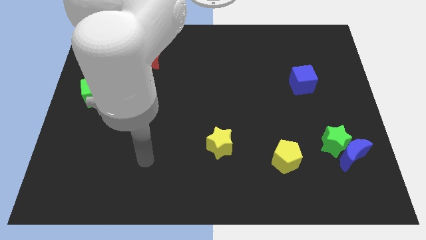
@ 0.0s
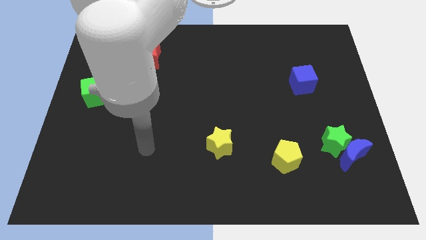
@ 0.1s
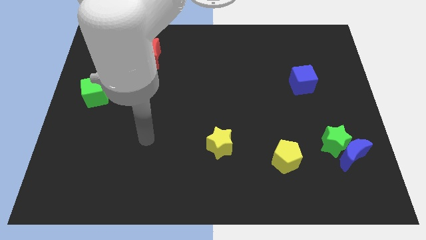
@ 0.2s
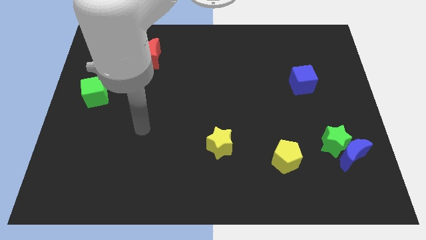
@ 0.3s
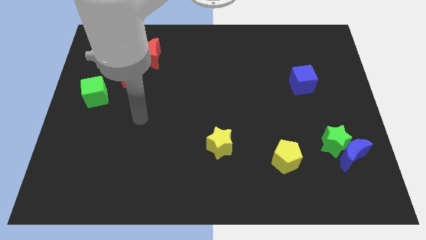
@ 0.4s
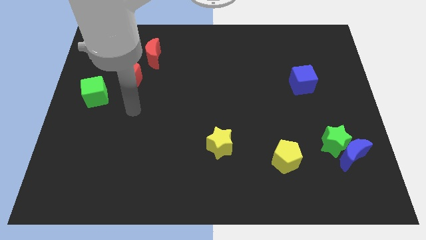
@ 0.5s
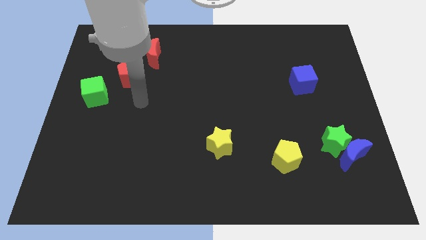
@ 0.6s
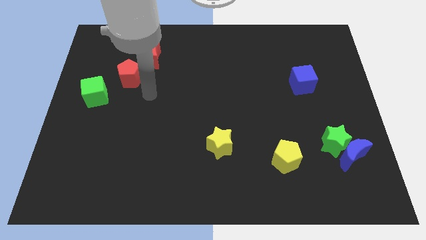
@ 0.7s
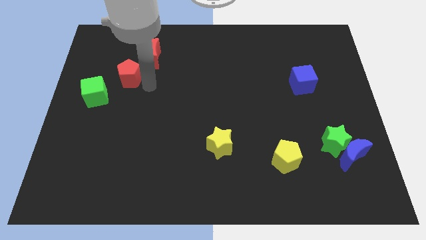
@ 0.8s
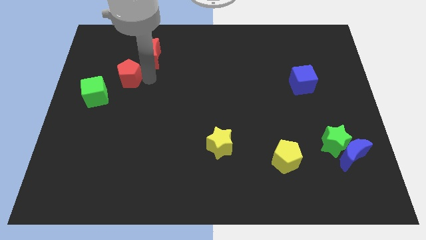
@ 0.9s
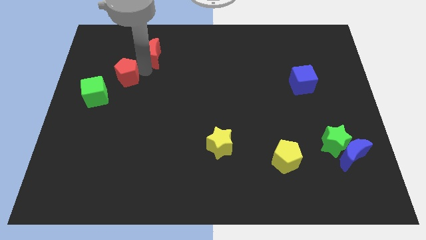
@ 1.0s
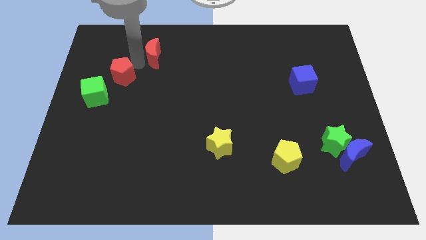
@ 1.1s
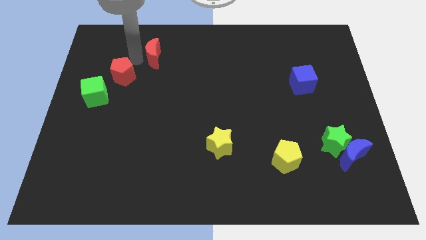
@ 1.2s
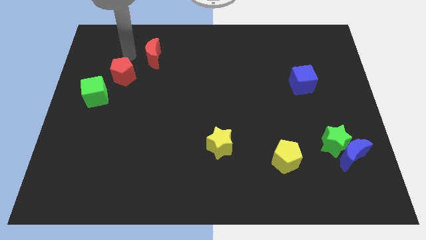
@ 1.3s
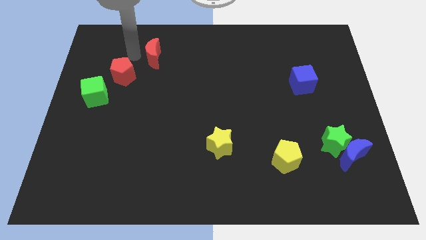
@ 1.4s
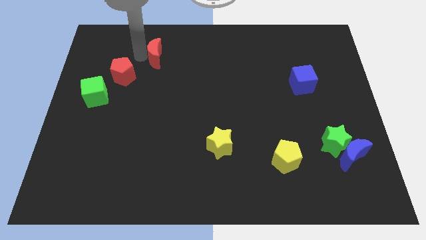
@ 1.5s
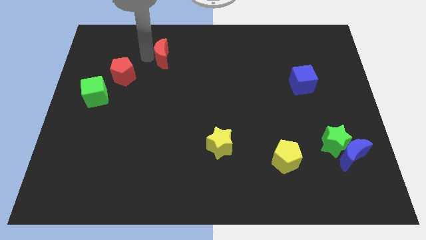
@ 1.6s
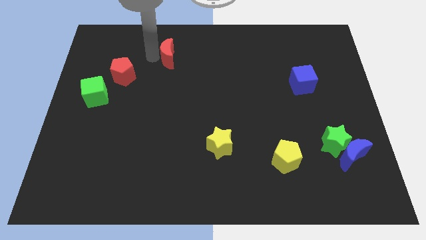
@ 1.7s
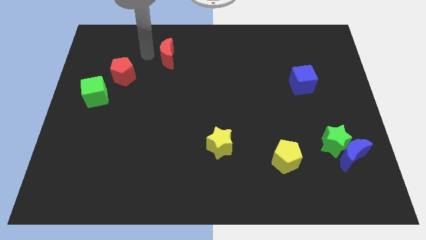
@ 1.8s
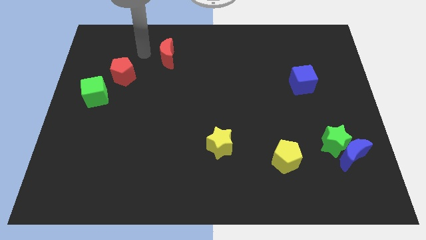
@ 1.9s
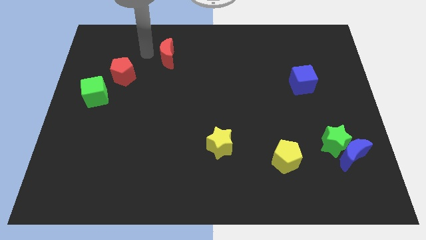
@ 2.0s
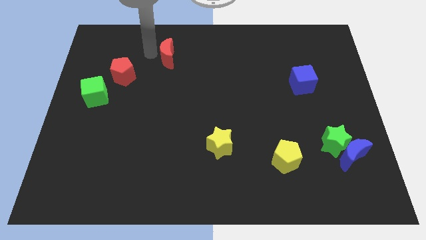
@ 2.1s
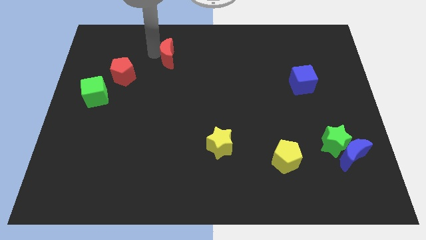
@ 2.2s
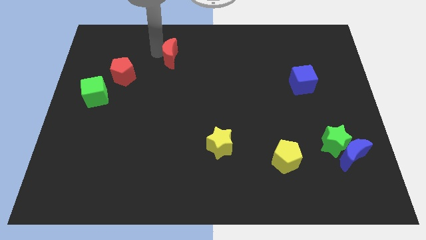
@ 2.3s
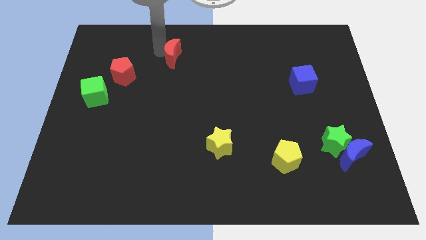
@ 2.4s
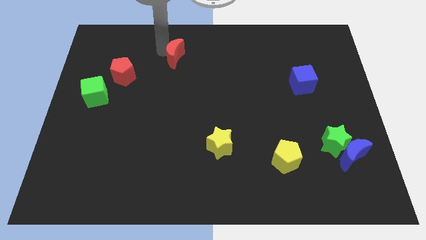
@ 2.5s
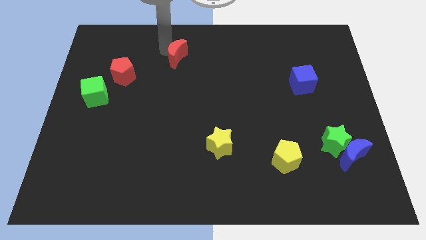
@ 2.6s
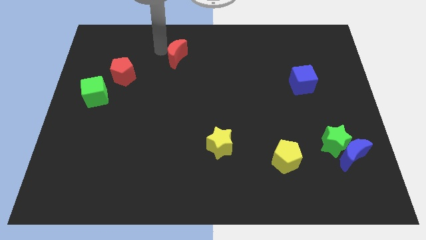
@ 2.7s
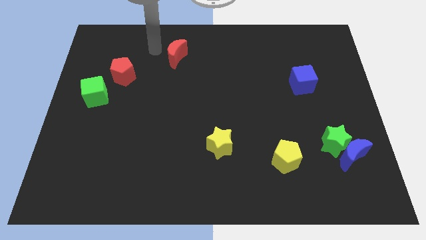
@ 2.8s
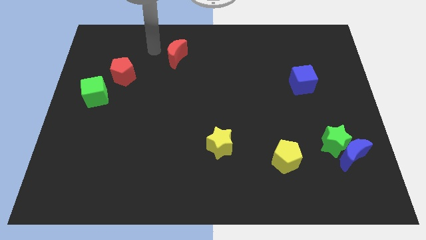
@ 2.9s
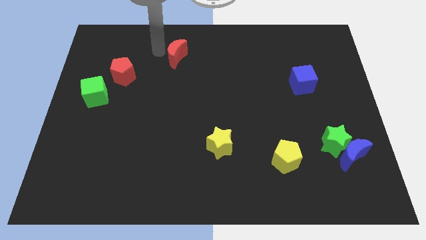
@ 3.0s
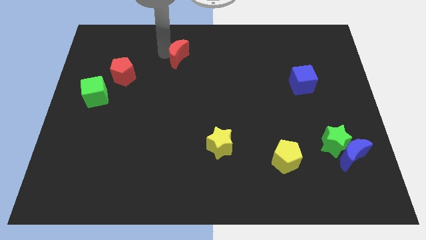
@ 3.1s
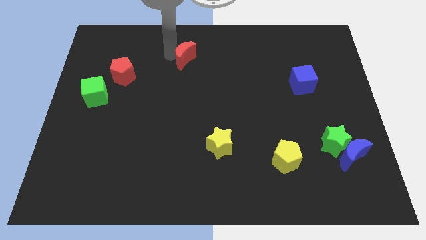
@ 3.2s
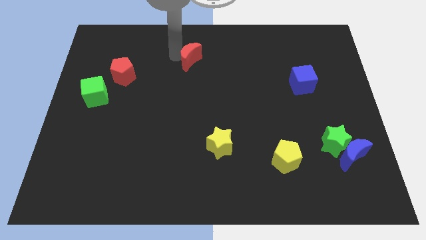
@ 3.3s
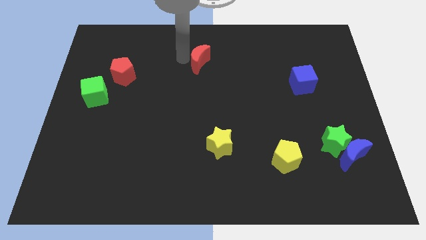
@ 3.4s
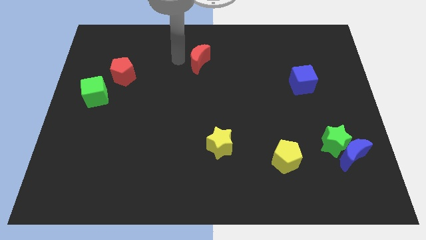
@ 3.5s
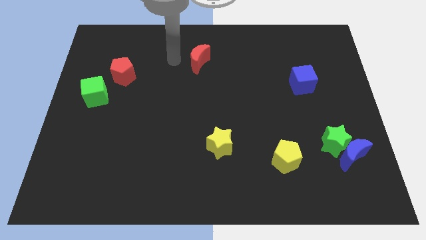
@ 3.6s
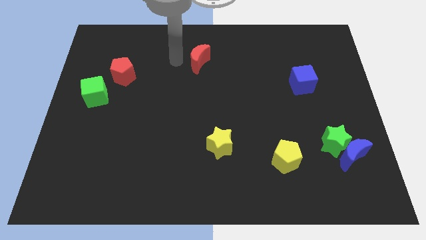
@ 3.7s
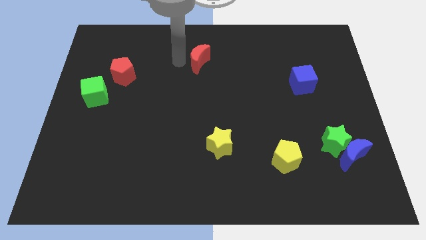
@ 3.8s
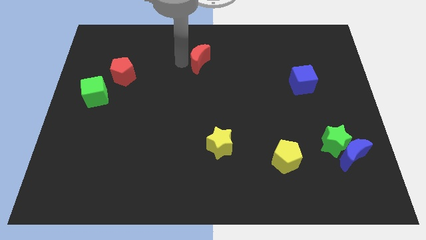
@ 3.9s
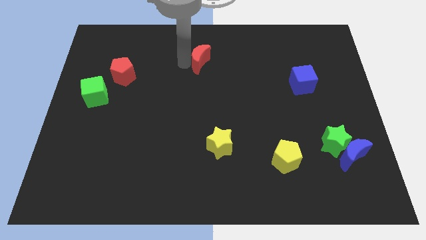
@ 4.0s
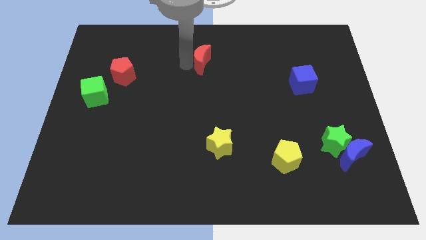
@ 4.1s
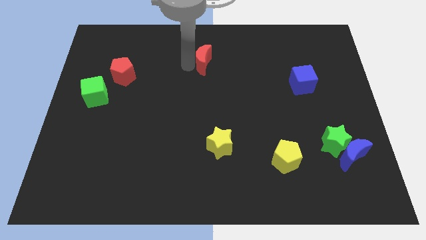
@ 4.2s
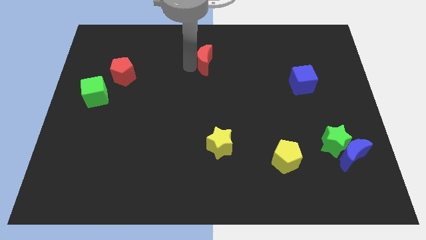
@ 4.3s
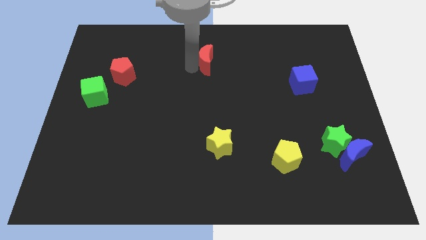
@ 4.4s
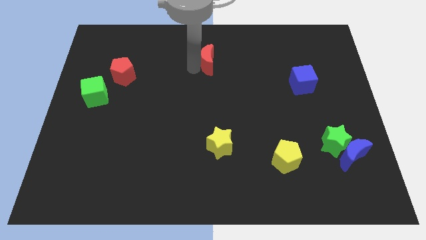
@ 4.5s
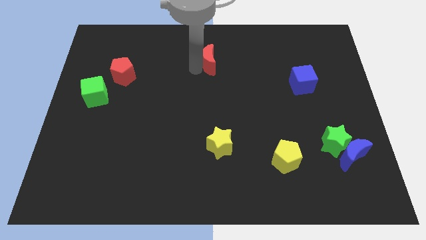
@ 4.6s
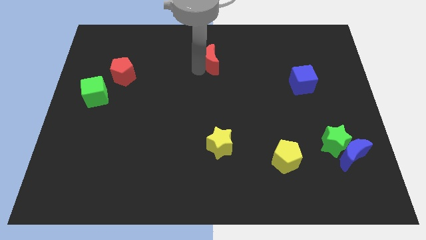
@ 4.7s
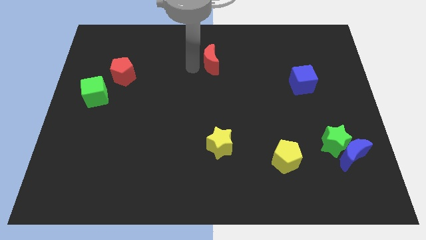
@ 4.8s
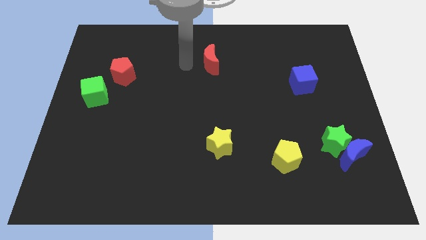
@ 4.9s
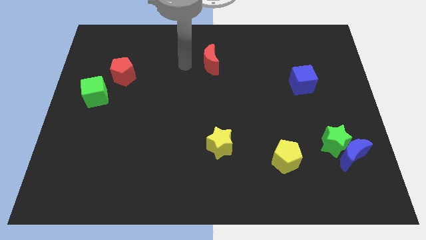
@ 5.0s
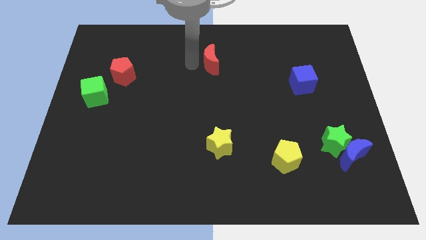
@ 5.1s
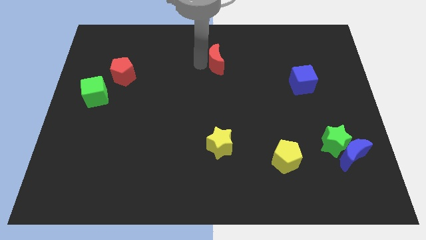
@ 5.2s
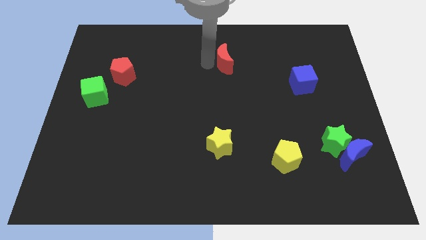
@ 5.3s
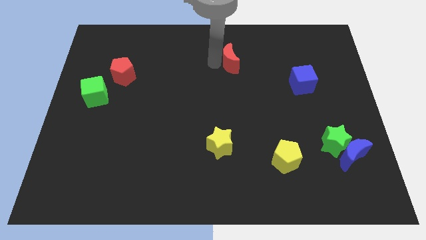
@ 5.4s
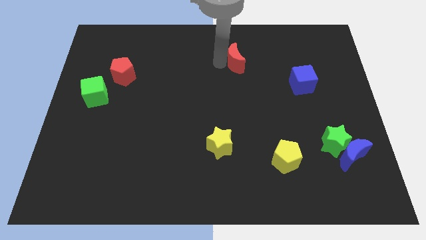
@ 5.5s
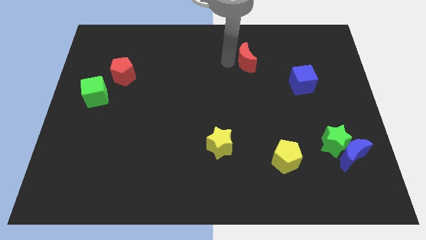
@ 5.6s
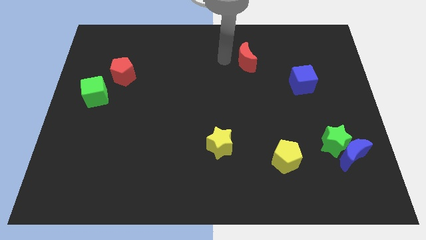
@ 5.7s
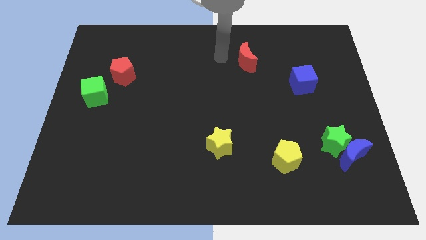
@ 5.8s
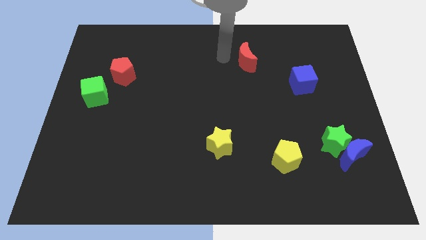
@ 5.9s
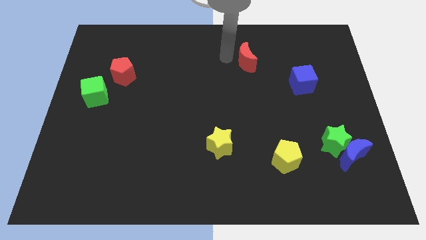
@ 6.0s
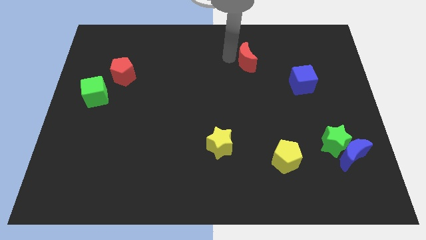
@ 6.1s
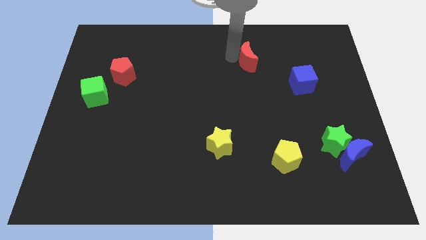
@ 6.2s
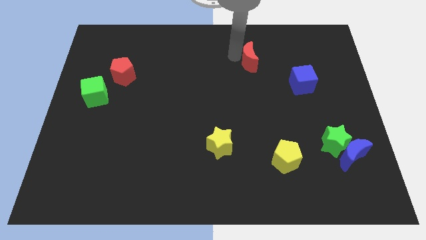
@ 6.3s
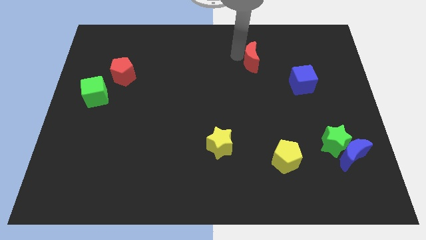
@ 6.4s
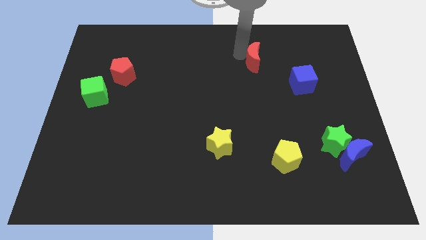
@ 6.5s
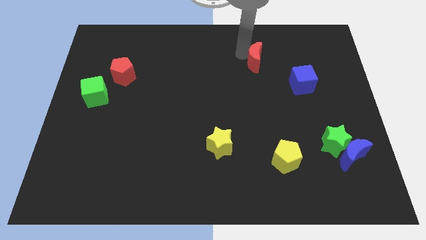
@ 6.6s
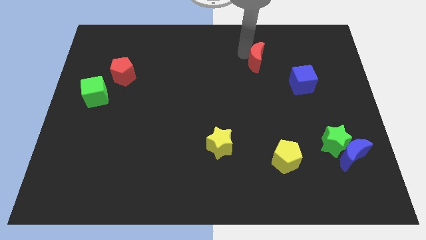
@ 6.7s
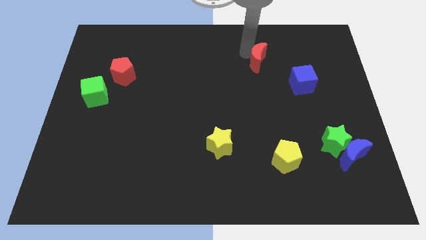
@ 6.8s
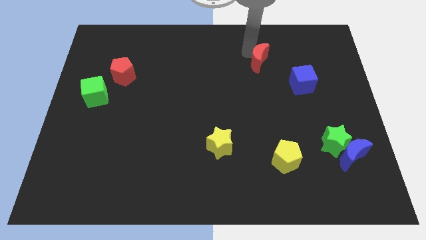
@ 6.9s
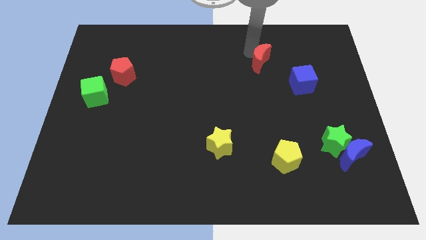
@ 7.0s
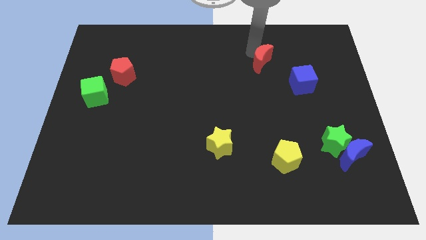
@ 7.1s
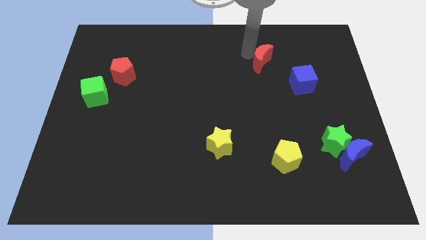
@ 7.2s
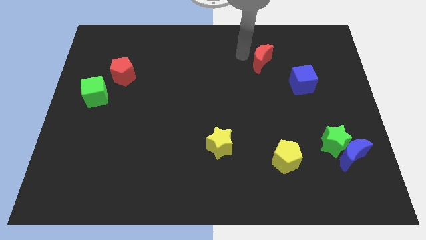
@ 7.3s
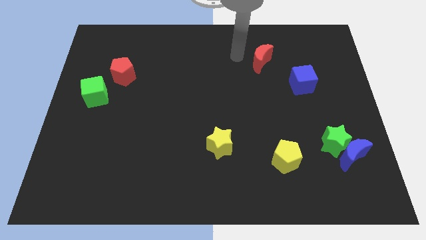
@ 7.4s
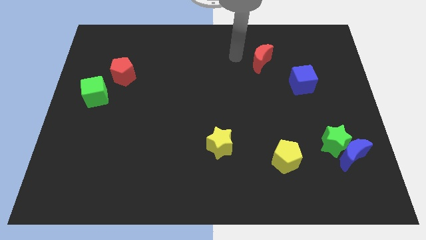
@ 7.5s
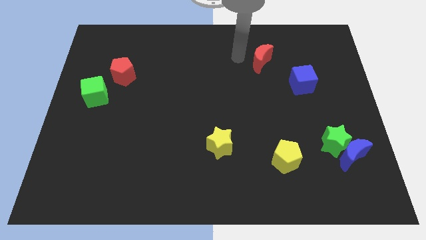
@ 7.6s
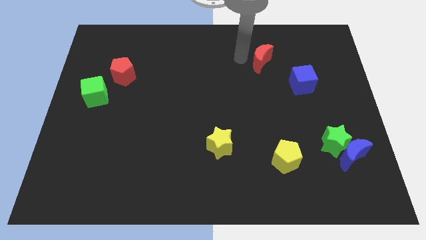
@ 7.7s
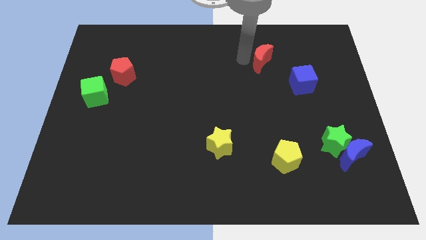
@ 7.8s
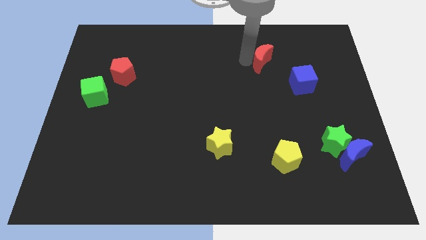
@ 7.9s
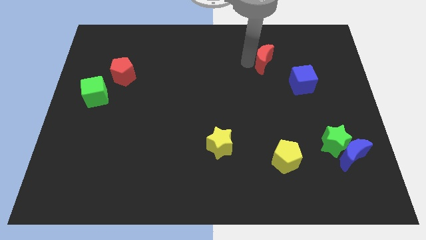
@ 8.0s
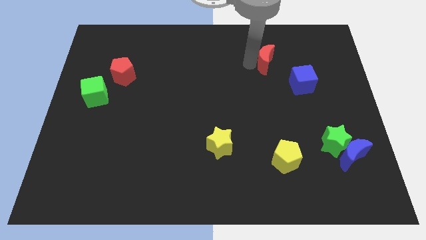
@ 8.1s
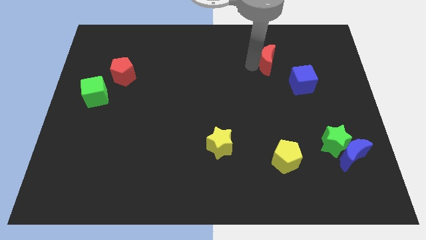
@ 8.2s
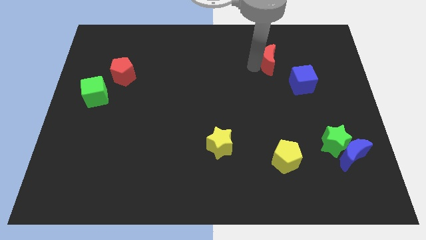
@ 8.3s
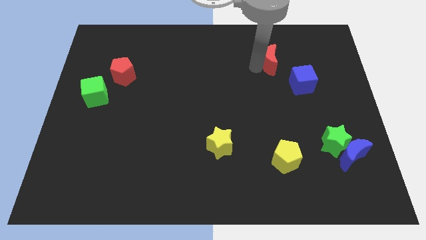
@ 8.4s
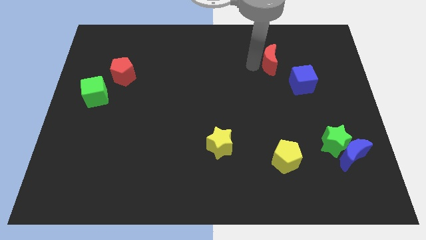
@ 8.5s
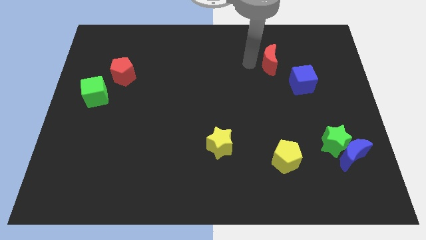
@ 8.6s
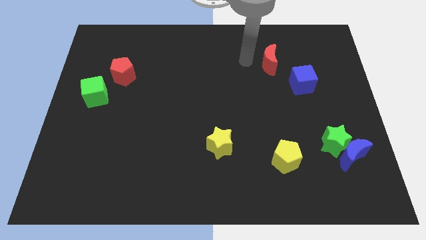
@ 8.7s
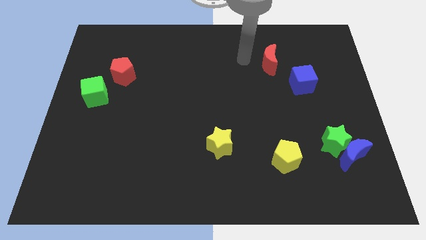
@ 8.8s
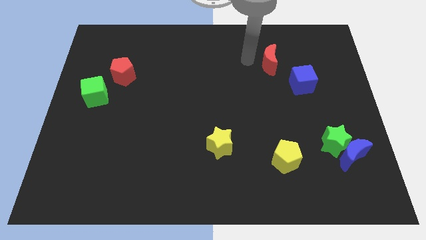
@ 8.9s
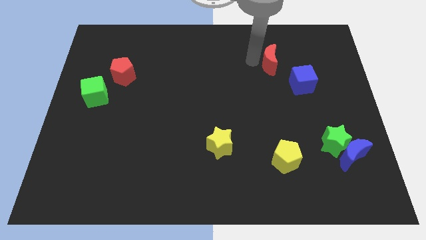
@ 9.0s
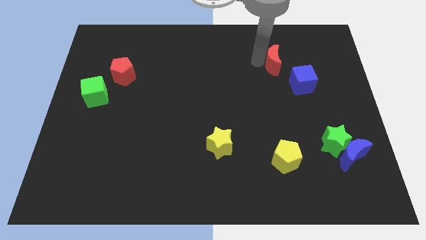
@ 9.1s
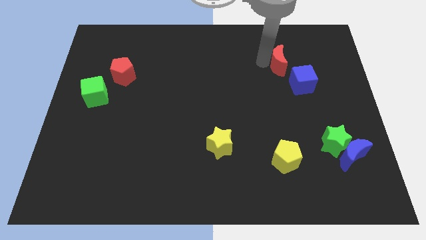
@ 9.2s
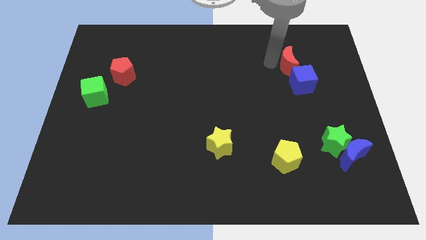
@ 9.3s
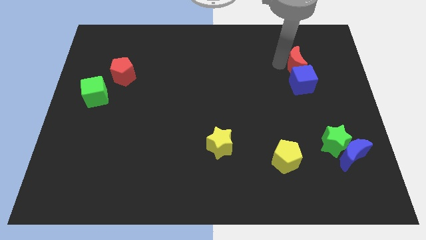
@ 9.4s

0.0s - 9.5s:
slide the red moon to the top right side of the blue cube
